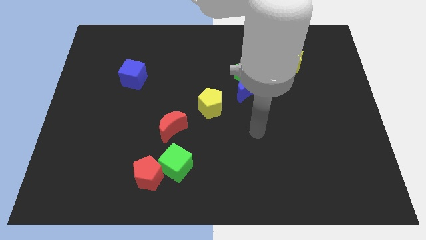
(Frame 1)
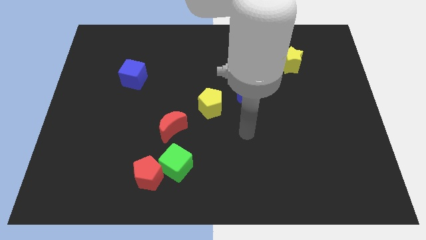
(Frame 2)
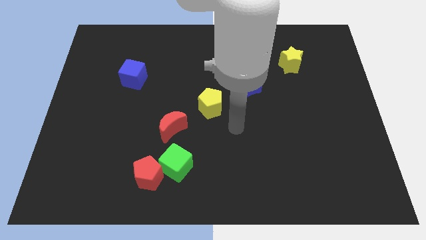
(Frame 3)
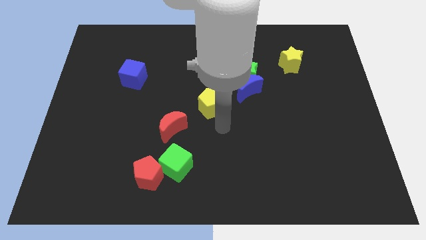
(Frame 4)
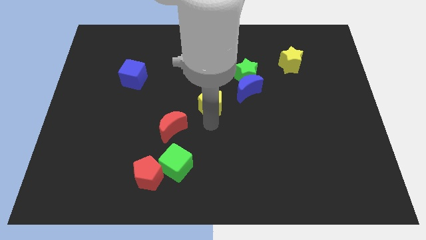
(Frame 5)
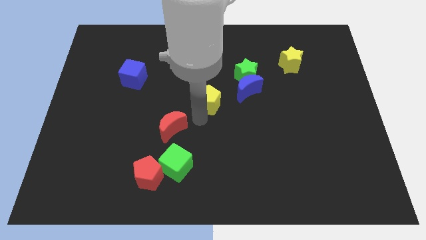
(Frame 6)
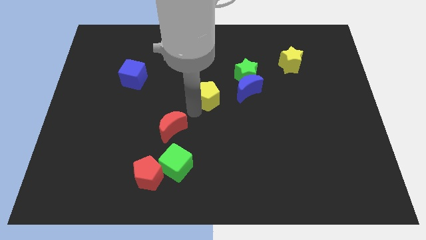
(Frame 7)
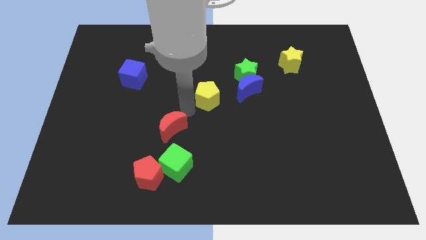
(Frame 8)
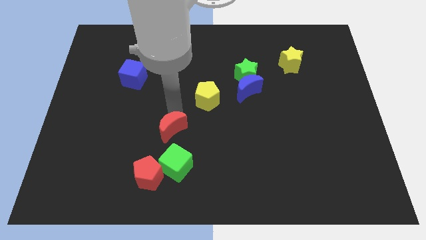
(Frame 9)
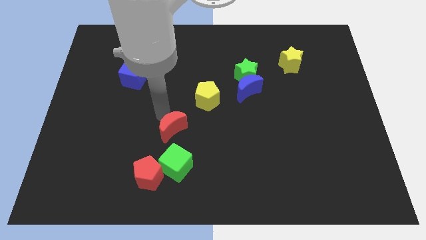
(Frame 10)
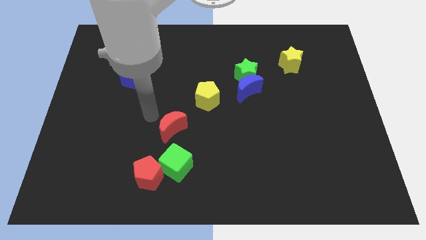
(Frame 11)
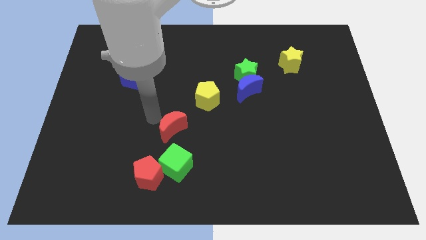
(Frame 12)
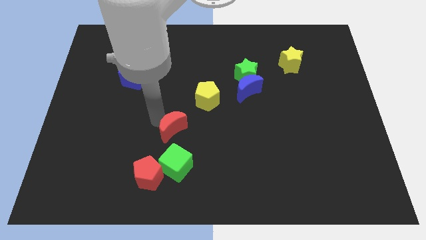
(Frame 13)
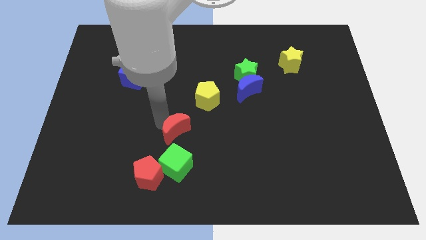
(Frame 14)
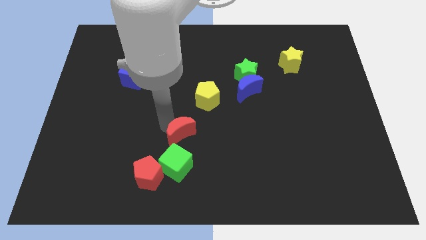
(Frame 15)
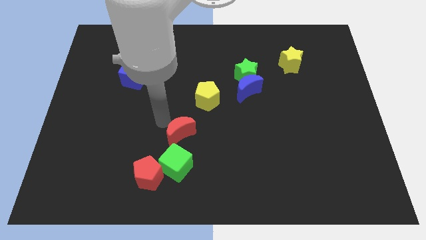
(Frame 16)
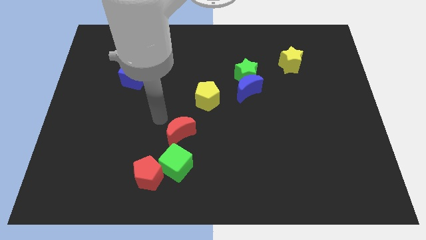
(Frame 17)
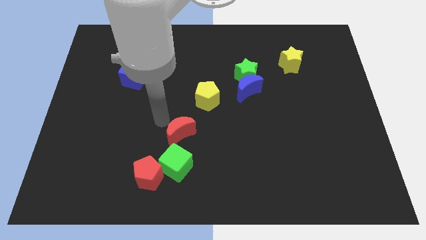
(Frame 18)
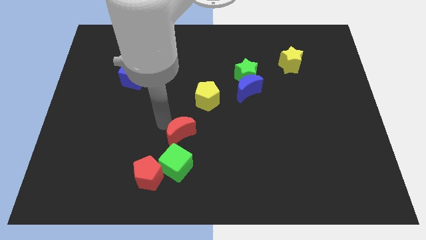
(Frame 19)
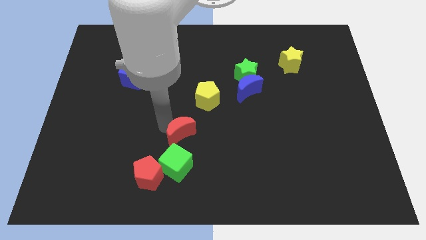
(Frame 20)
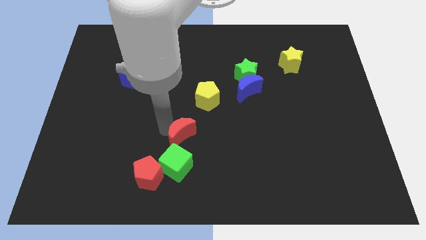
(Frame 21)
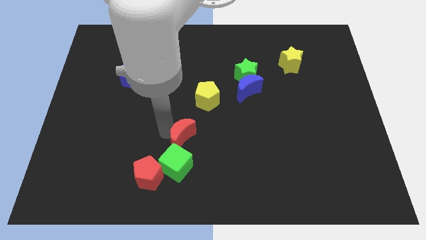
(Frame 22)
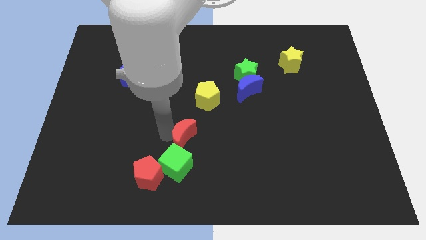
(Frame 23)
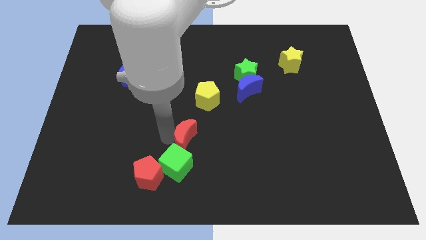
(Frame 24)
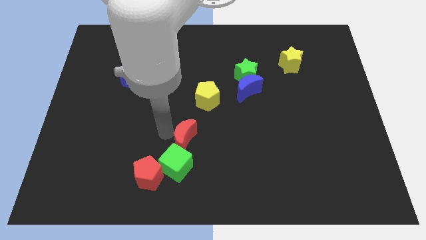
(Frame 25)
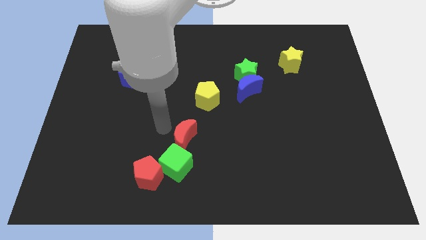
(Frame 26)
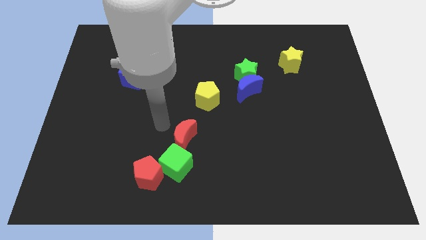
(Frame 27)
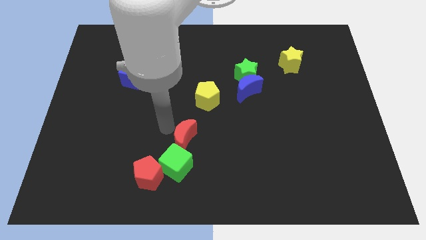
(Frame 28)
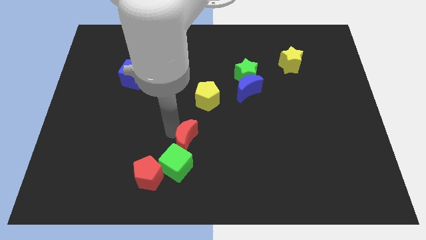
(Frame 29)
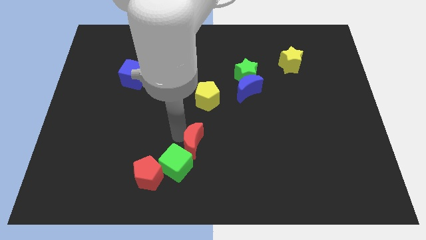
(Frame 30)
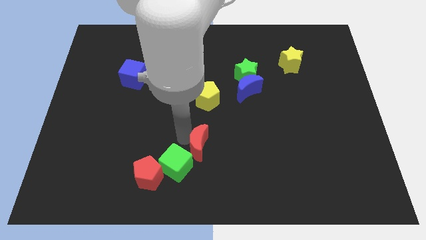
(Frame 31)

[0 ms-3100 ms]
slide the red moon downwards and to the right a little

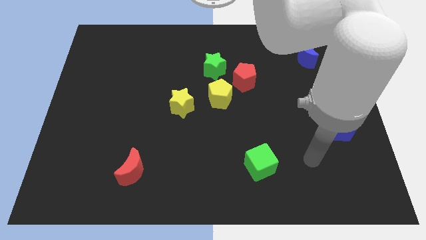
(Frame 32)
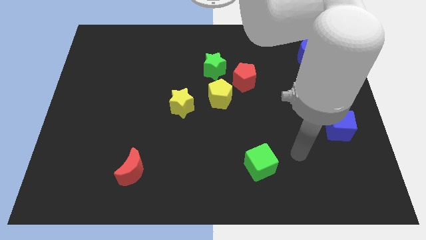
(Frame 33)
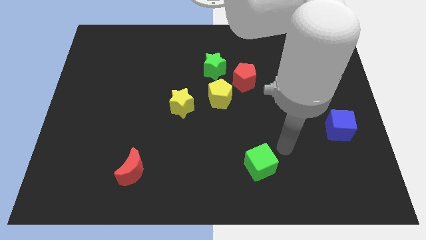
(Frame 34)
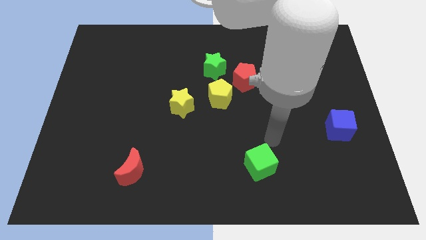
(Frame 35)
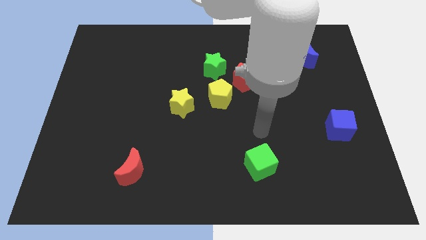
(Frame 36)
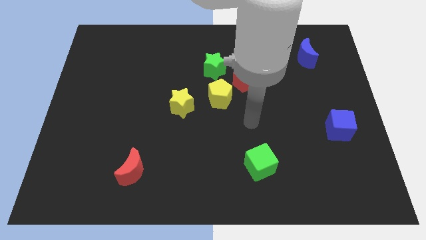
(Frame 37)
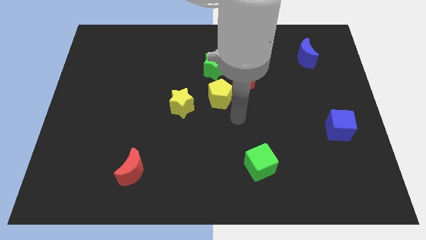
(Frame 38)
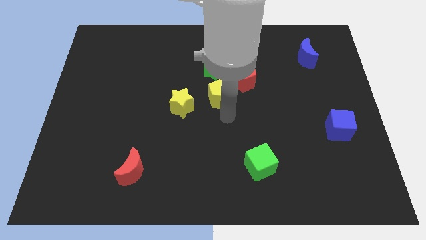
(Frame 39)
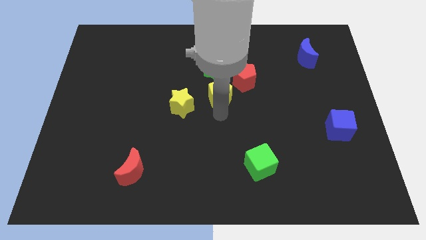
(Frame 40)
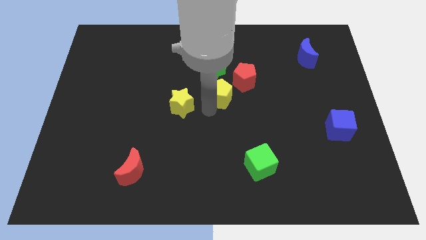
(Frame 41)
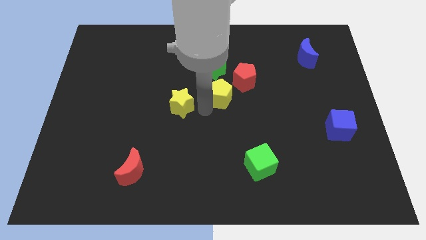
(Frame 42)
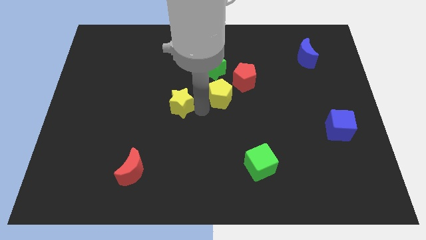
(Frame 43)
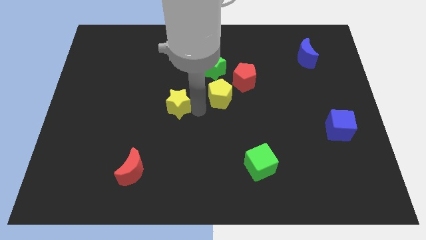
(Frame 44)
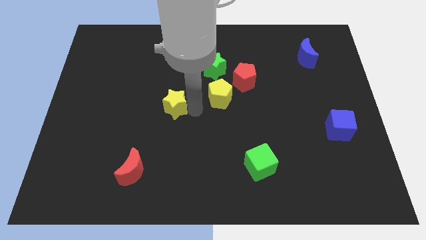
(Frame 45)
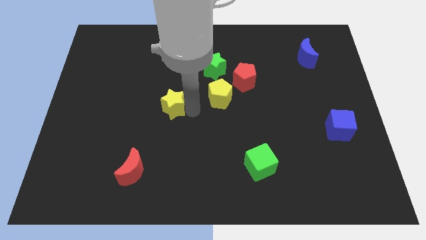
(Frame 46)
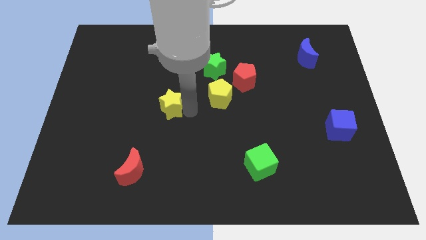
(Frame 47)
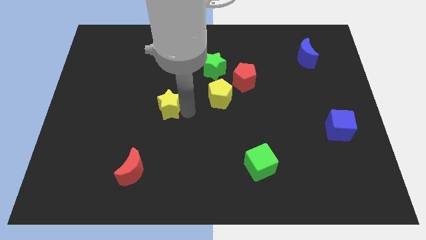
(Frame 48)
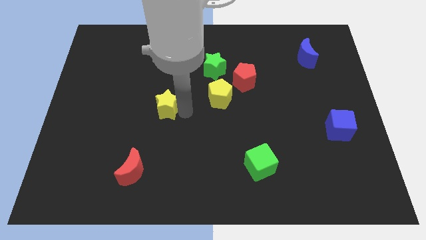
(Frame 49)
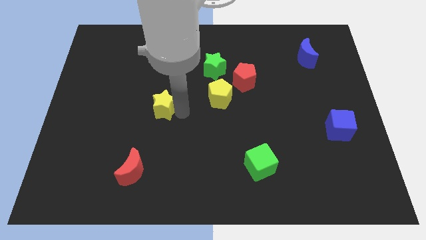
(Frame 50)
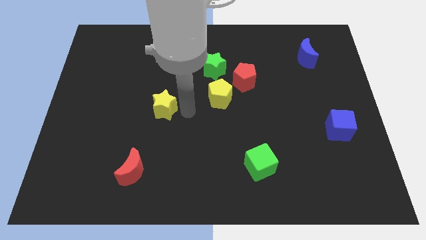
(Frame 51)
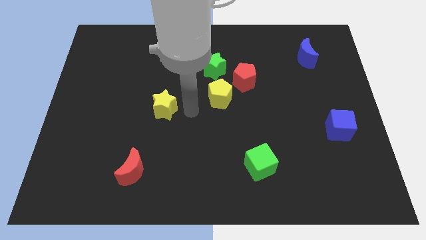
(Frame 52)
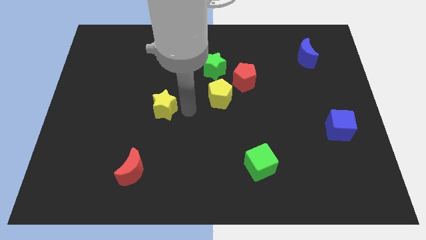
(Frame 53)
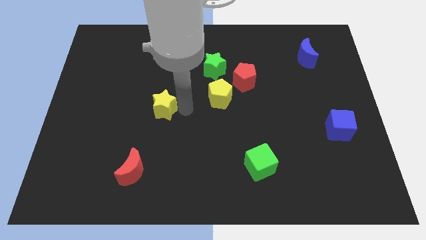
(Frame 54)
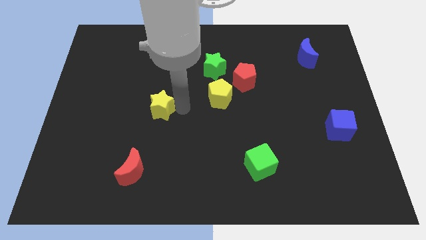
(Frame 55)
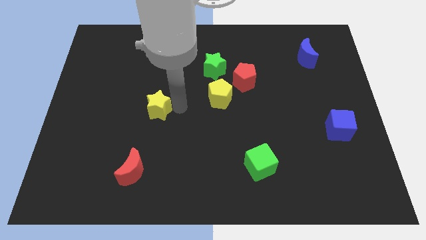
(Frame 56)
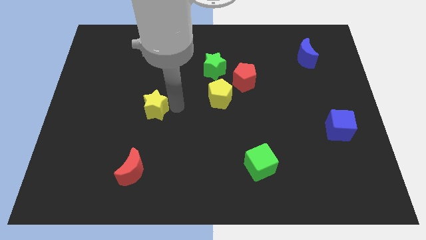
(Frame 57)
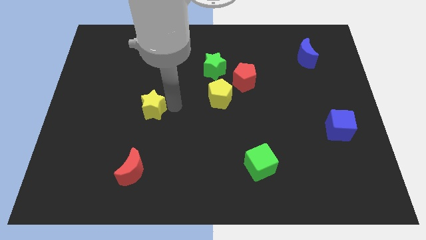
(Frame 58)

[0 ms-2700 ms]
slightly slide the yellow star to the left

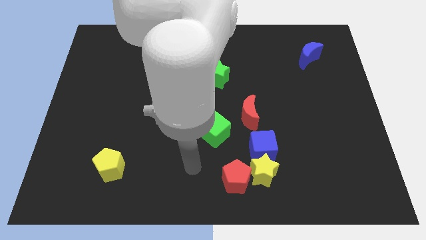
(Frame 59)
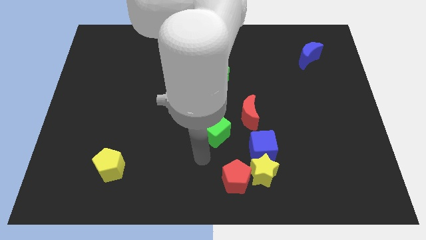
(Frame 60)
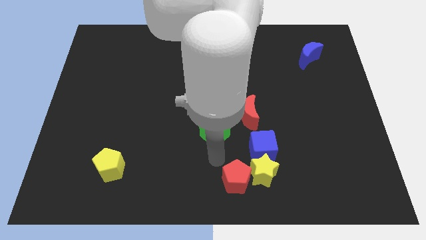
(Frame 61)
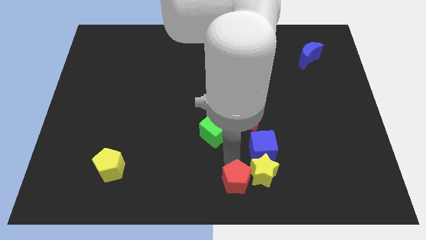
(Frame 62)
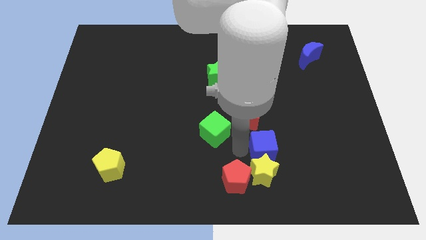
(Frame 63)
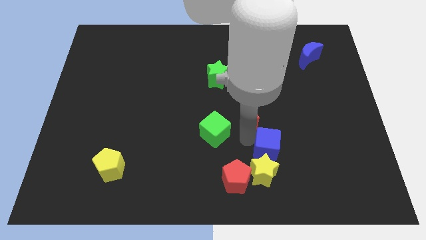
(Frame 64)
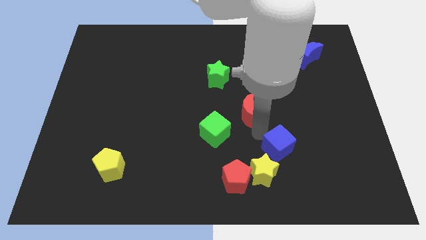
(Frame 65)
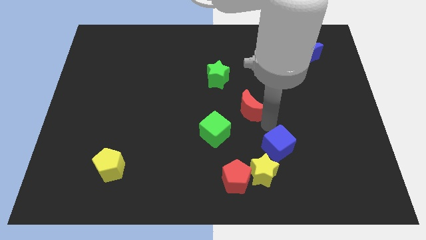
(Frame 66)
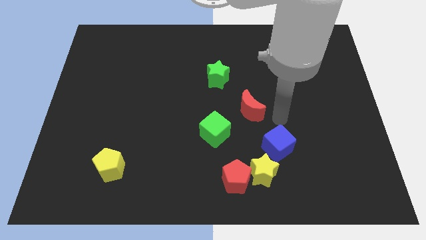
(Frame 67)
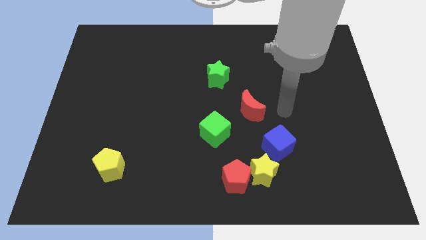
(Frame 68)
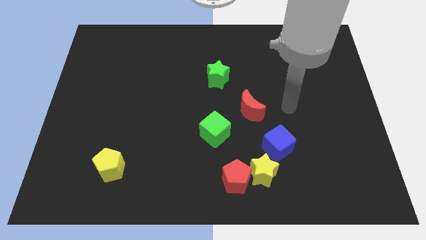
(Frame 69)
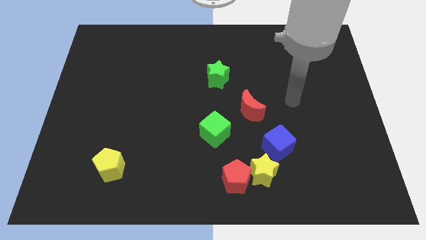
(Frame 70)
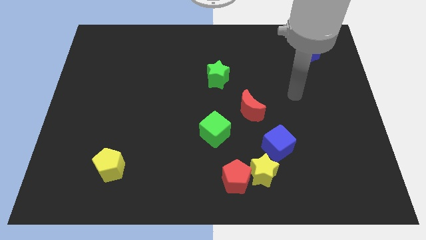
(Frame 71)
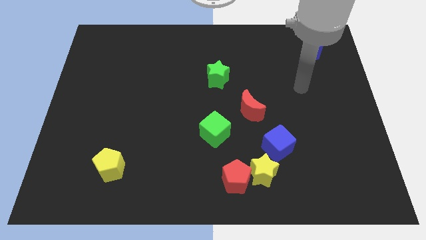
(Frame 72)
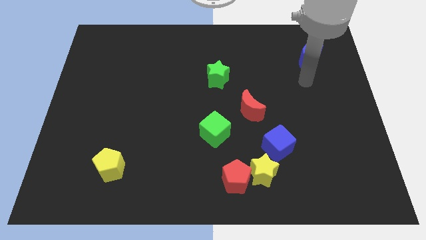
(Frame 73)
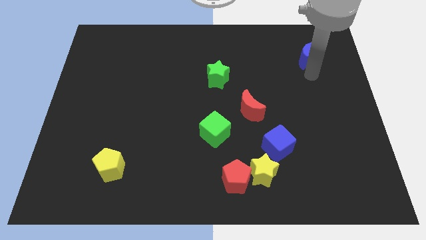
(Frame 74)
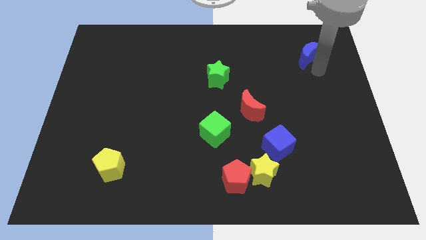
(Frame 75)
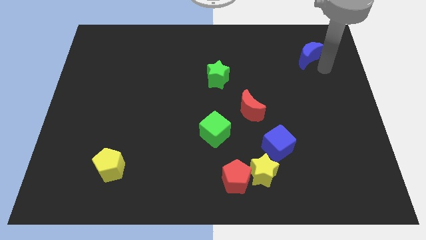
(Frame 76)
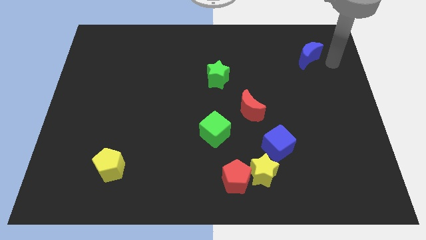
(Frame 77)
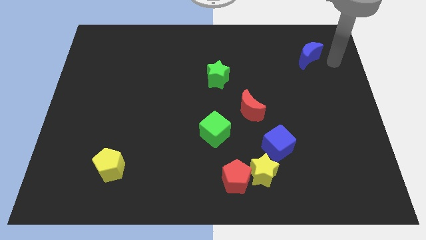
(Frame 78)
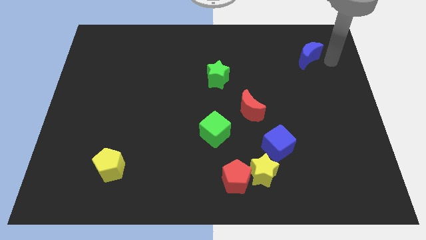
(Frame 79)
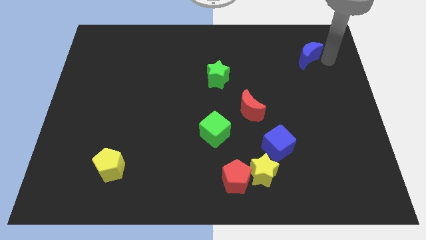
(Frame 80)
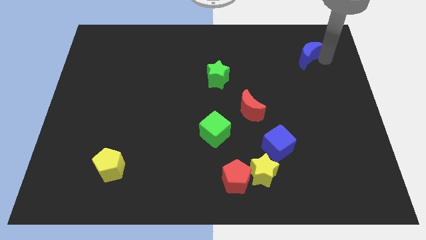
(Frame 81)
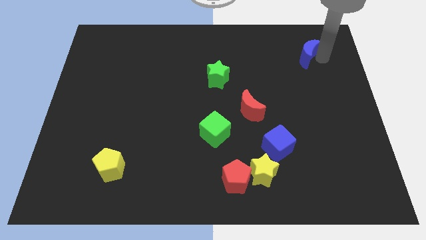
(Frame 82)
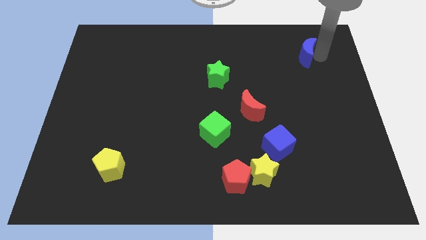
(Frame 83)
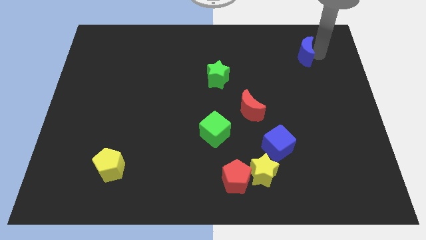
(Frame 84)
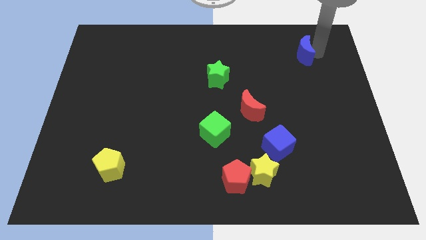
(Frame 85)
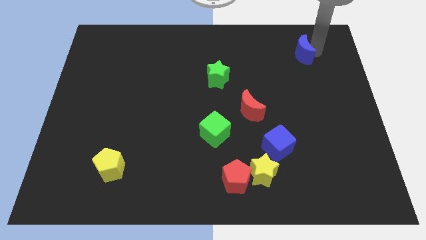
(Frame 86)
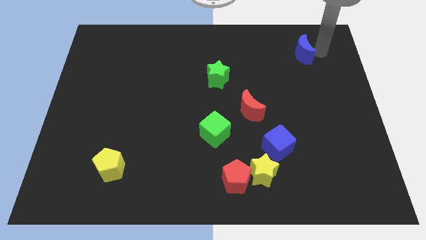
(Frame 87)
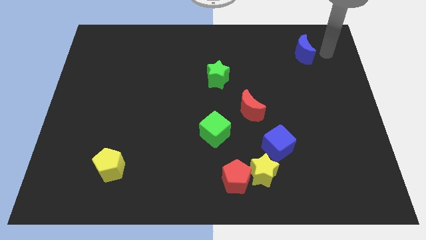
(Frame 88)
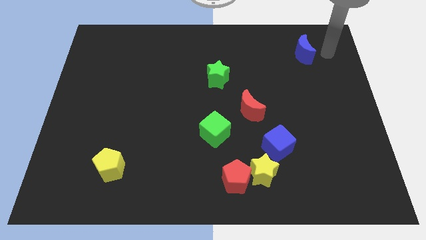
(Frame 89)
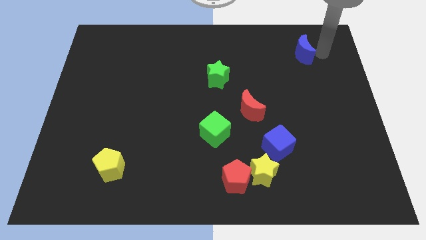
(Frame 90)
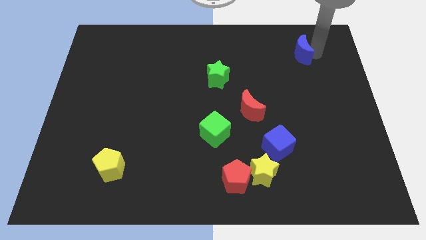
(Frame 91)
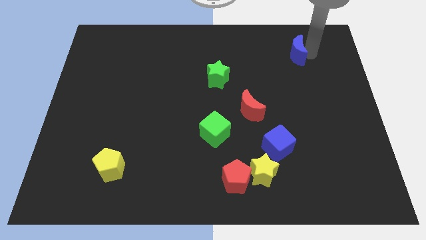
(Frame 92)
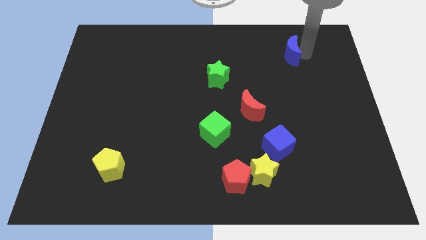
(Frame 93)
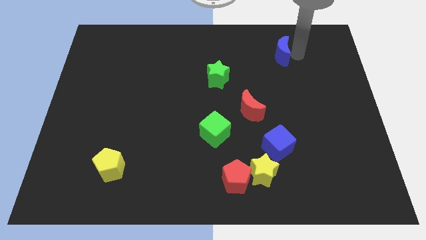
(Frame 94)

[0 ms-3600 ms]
slightly push the blue moon left
